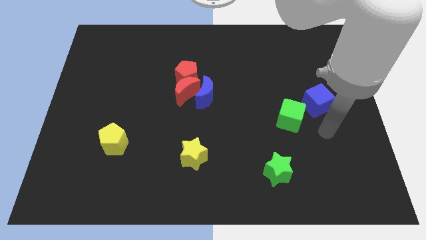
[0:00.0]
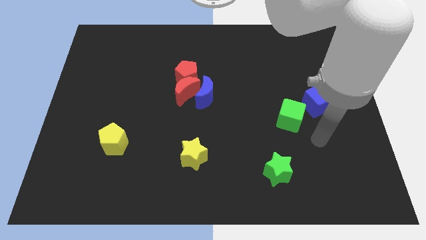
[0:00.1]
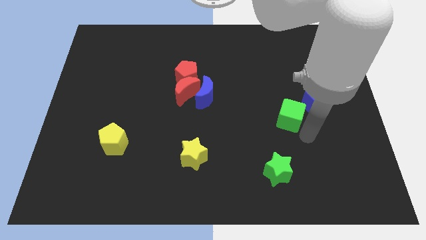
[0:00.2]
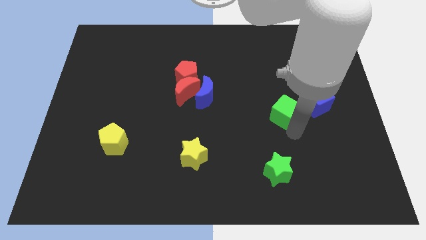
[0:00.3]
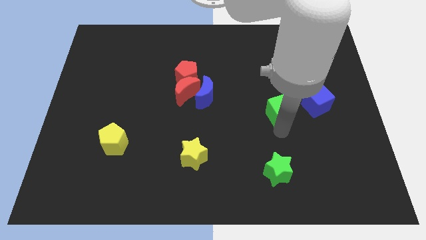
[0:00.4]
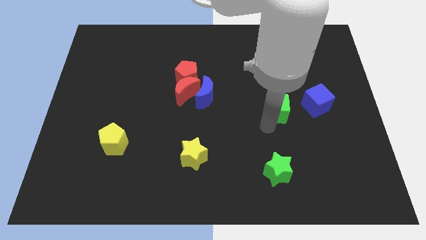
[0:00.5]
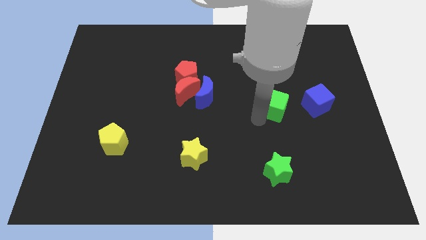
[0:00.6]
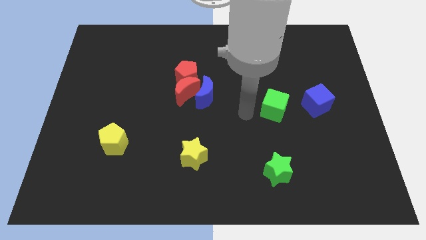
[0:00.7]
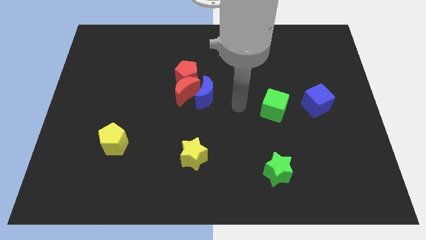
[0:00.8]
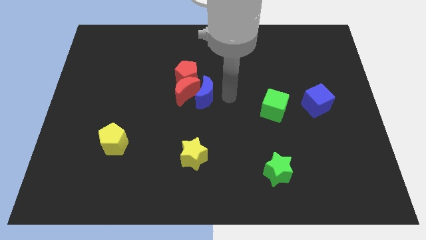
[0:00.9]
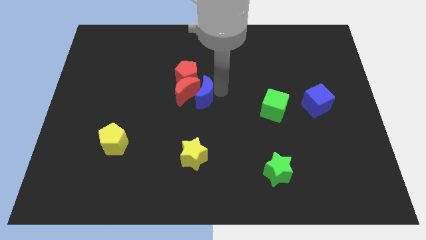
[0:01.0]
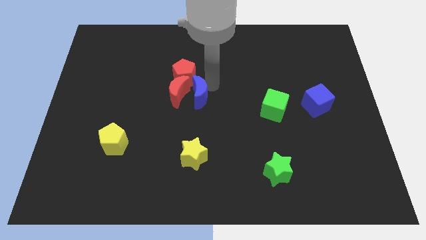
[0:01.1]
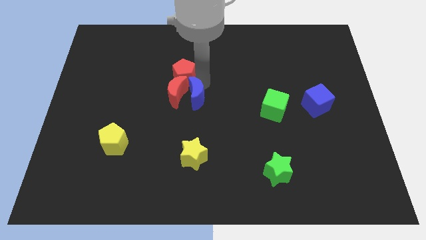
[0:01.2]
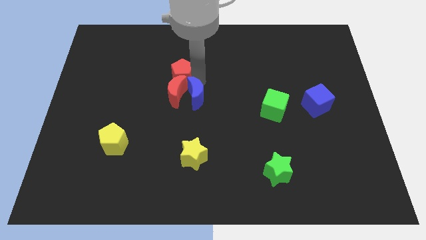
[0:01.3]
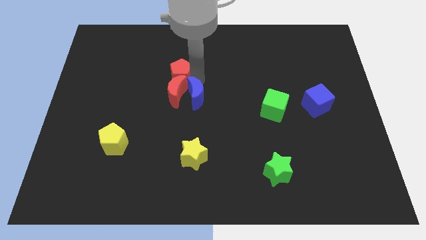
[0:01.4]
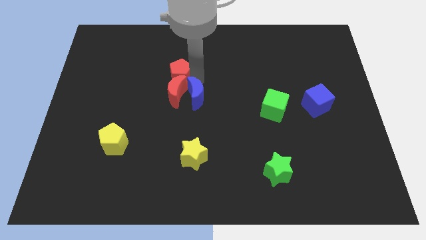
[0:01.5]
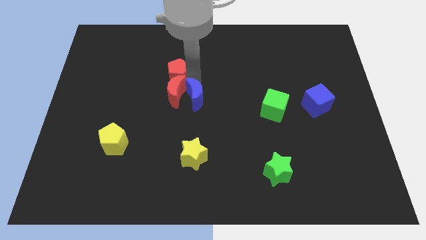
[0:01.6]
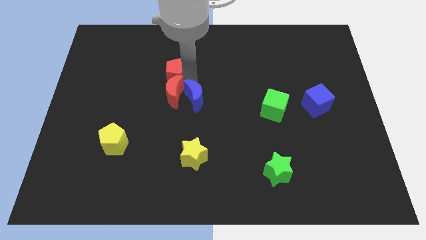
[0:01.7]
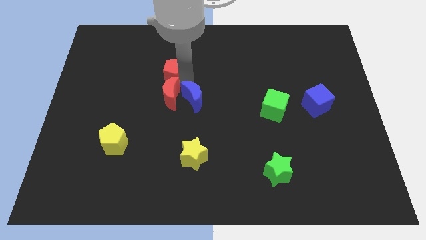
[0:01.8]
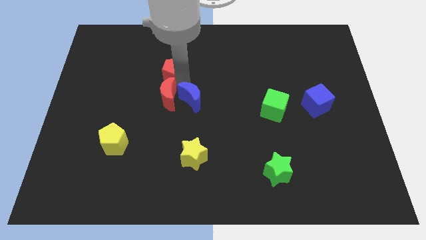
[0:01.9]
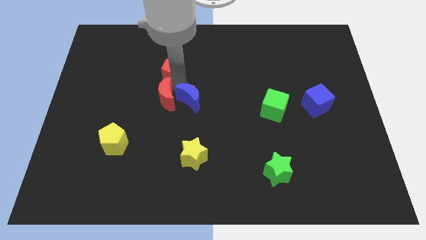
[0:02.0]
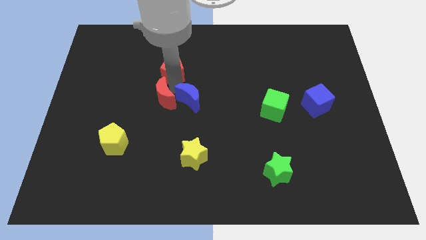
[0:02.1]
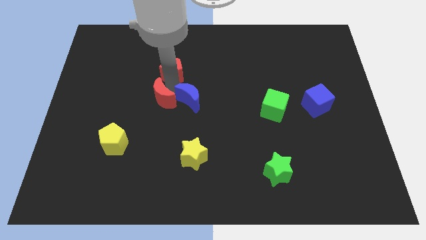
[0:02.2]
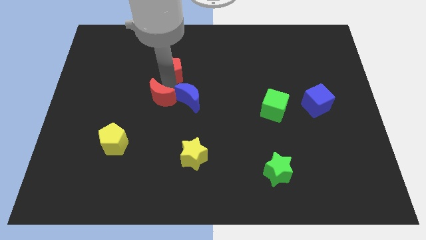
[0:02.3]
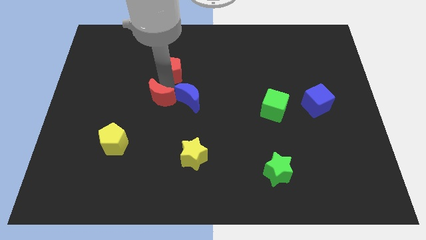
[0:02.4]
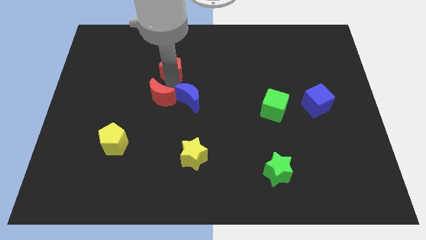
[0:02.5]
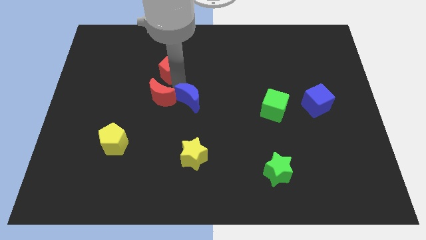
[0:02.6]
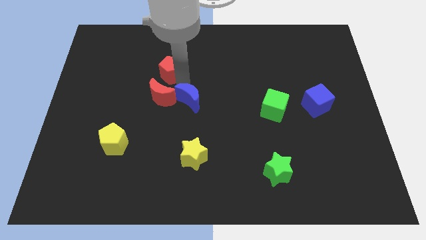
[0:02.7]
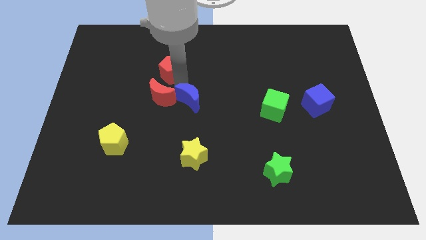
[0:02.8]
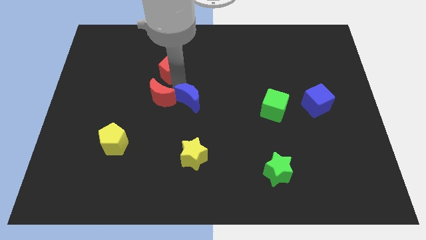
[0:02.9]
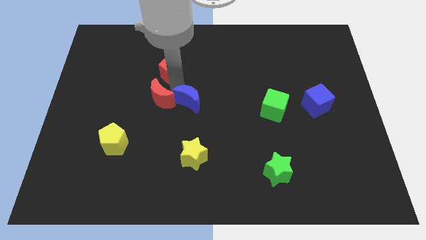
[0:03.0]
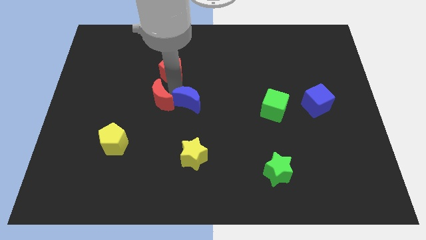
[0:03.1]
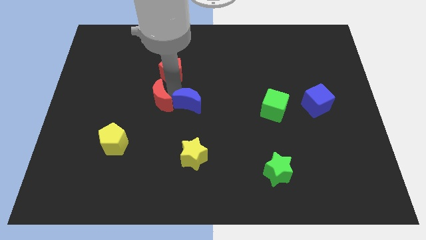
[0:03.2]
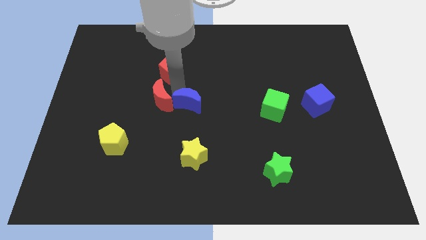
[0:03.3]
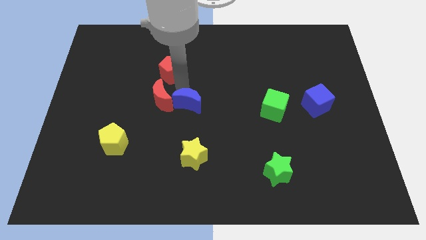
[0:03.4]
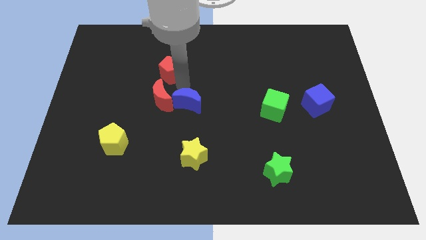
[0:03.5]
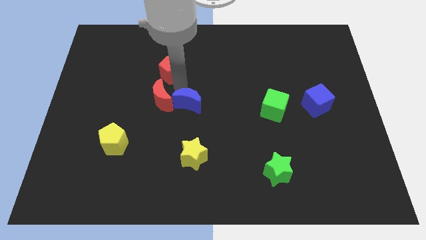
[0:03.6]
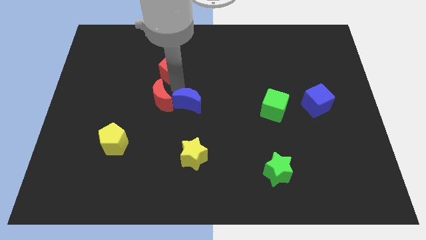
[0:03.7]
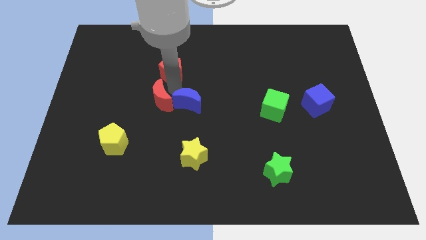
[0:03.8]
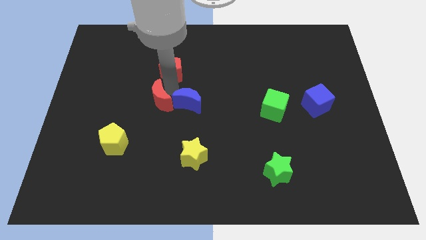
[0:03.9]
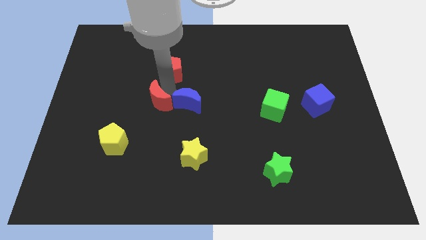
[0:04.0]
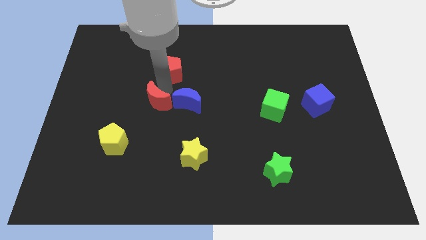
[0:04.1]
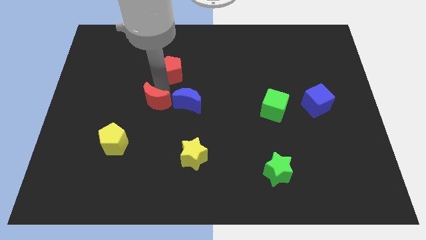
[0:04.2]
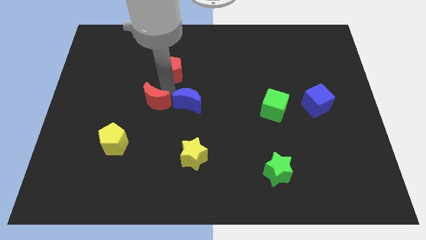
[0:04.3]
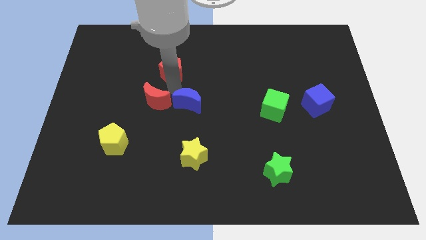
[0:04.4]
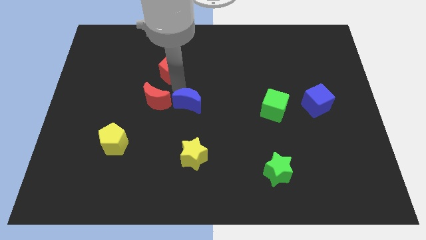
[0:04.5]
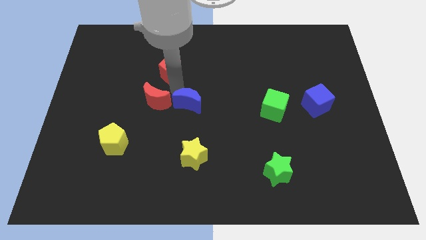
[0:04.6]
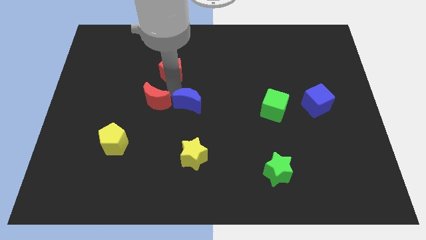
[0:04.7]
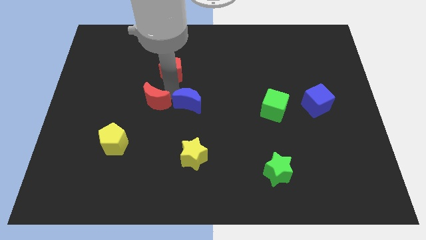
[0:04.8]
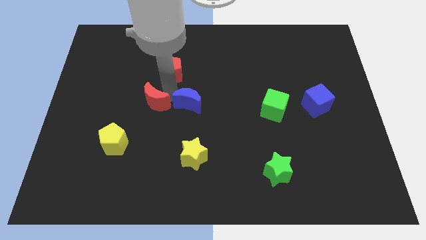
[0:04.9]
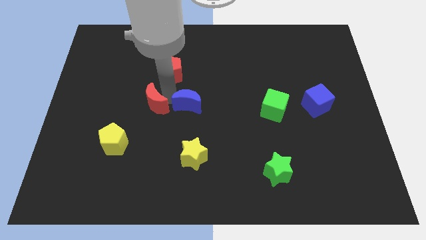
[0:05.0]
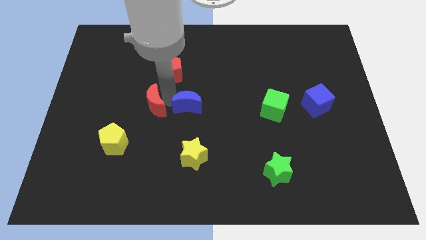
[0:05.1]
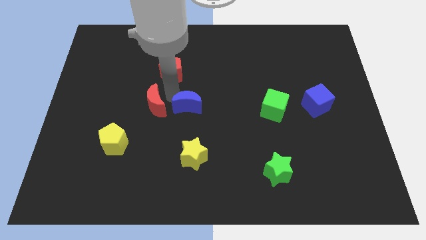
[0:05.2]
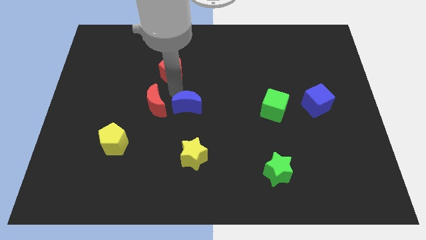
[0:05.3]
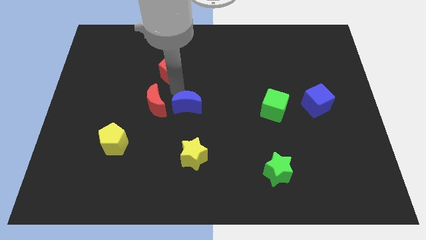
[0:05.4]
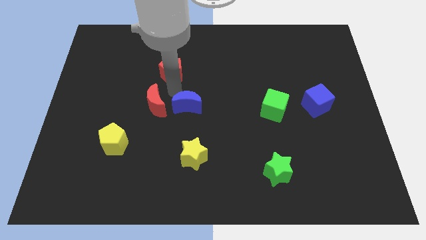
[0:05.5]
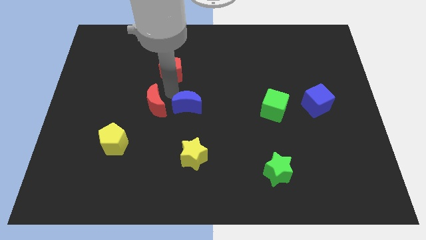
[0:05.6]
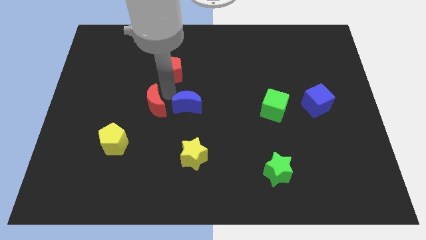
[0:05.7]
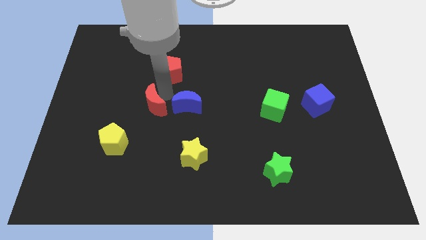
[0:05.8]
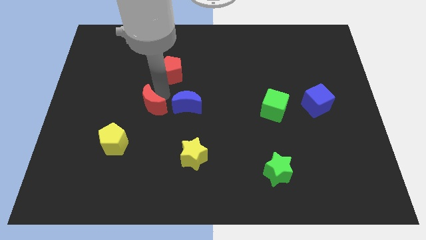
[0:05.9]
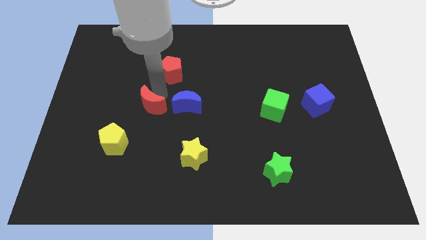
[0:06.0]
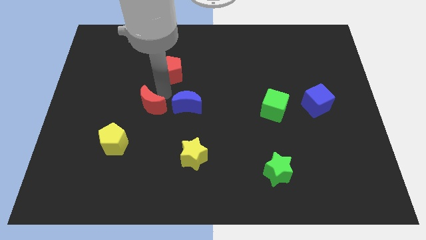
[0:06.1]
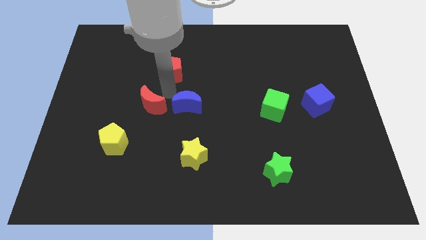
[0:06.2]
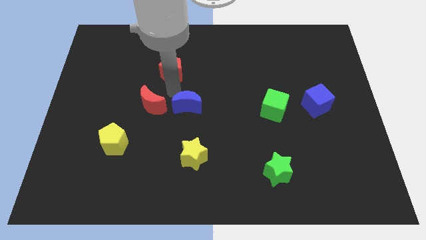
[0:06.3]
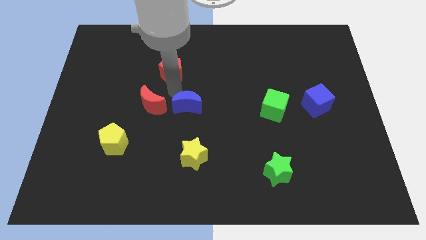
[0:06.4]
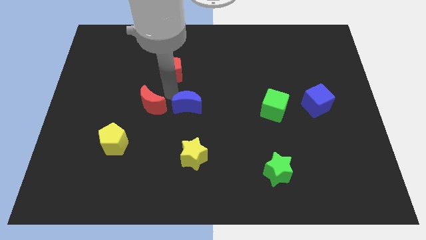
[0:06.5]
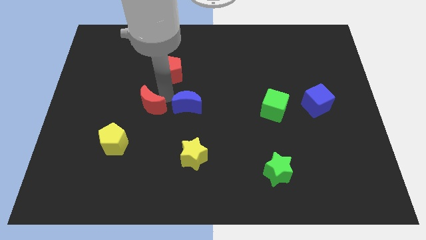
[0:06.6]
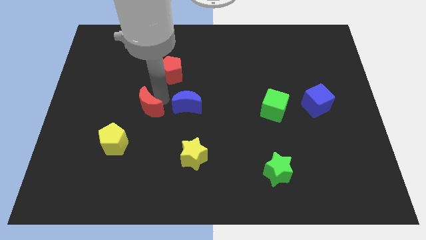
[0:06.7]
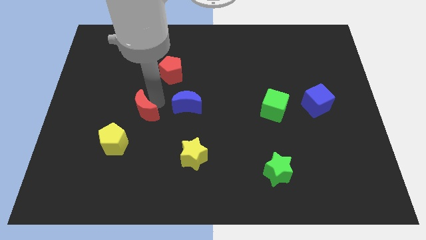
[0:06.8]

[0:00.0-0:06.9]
pull the red moon apart from the red pentagon and blue moon

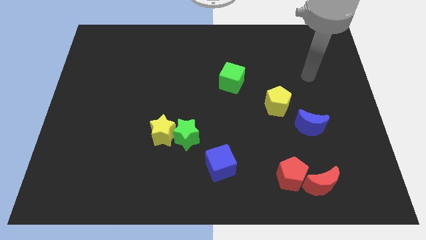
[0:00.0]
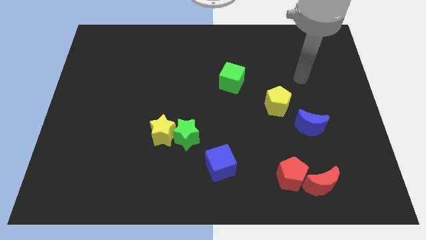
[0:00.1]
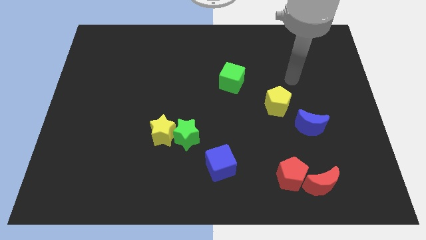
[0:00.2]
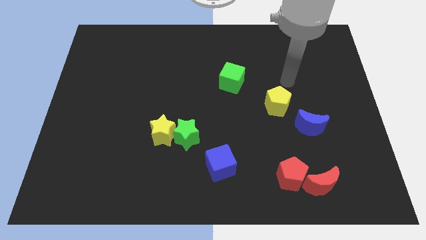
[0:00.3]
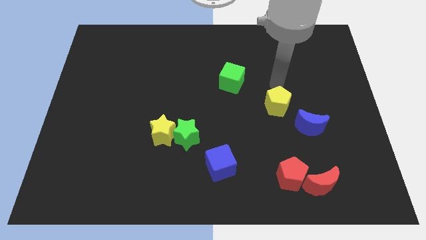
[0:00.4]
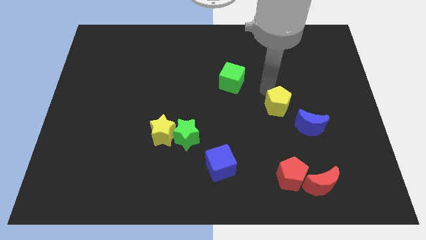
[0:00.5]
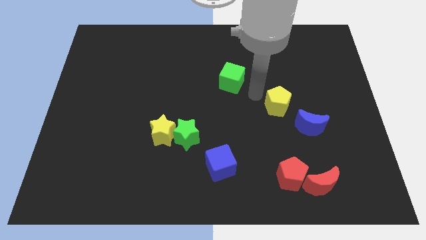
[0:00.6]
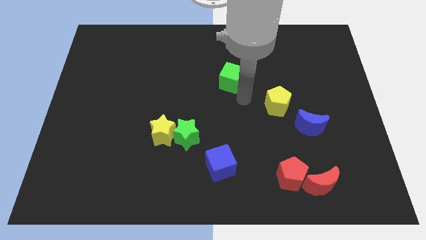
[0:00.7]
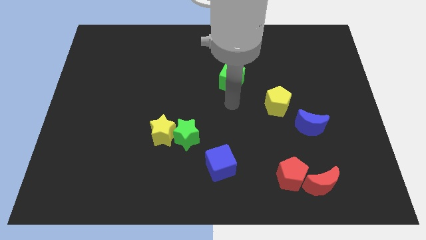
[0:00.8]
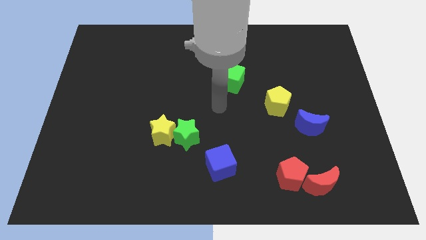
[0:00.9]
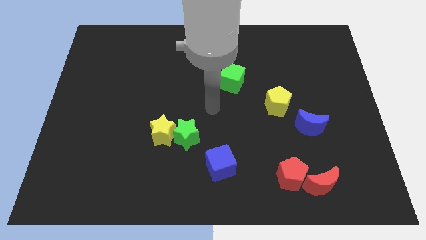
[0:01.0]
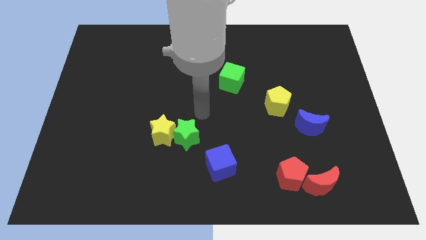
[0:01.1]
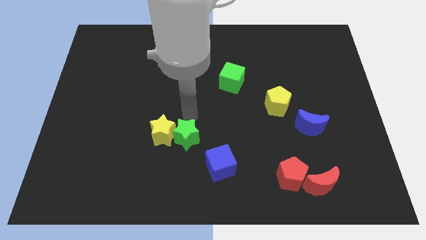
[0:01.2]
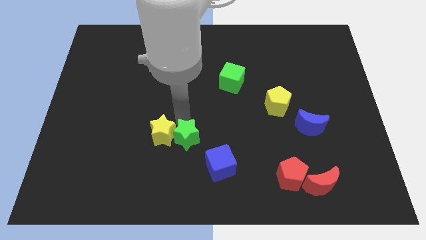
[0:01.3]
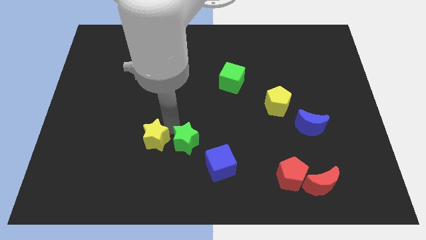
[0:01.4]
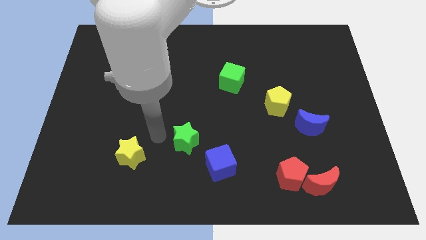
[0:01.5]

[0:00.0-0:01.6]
move the green star away from the yellow star

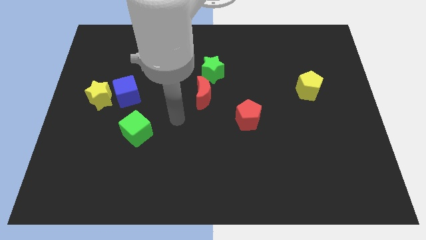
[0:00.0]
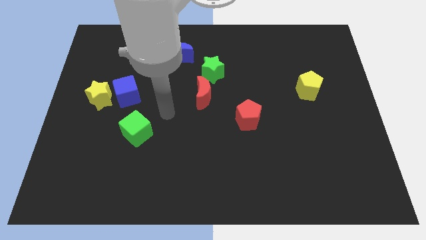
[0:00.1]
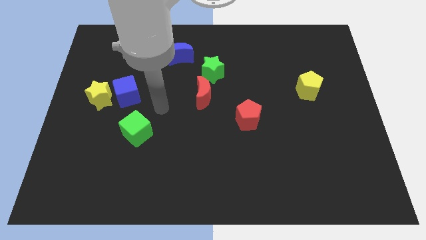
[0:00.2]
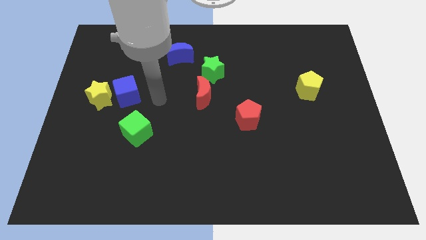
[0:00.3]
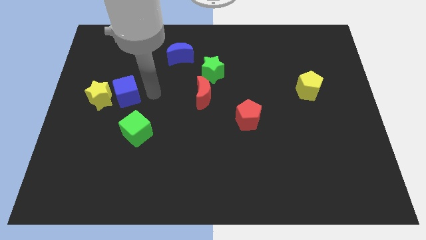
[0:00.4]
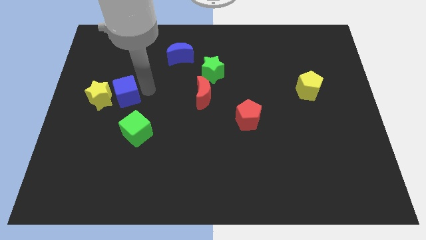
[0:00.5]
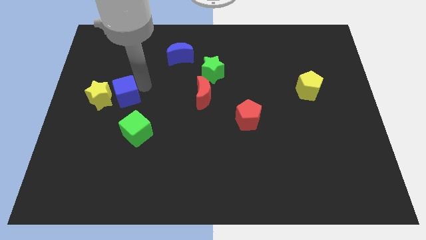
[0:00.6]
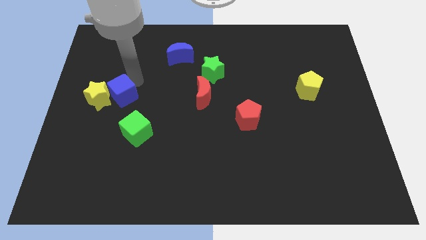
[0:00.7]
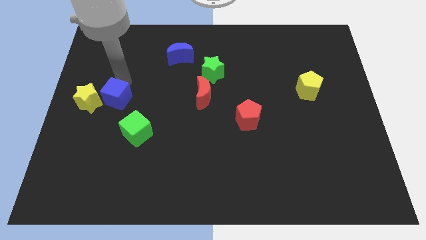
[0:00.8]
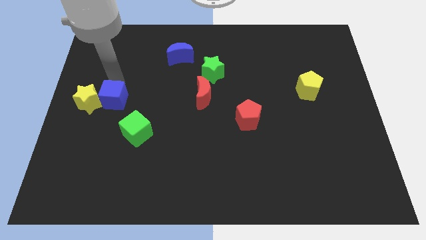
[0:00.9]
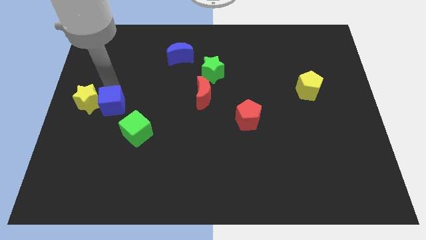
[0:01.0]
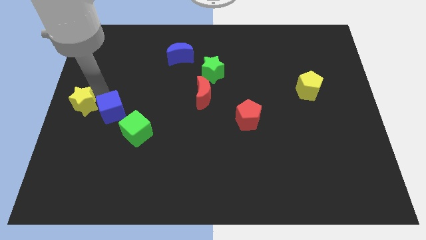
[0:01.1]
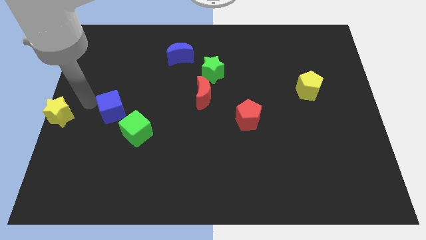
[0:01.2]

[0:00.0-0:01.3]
move the blue cube away from the yellow star
